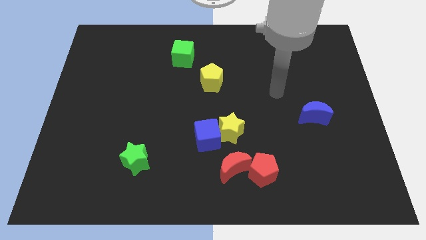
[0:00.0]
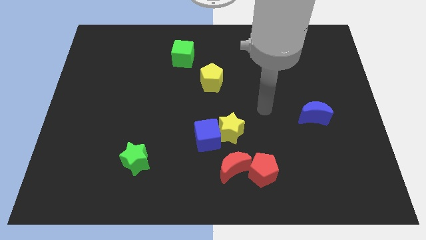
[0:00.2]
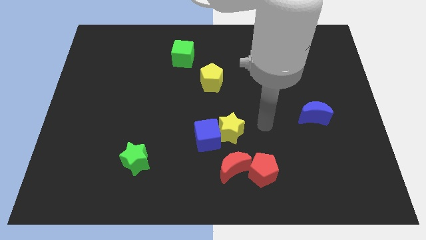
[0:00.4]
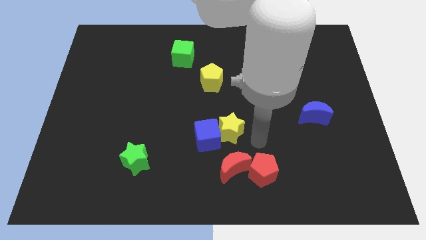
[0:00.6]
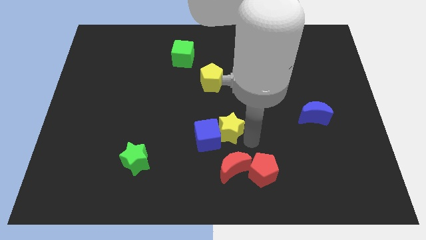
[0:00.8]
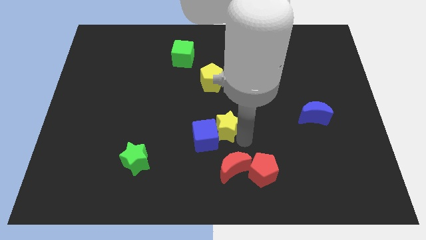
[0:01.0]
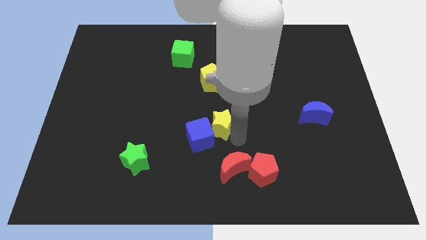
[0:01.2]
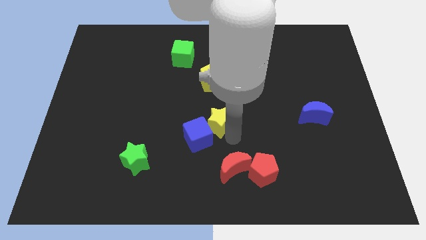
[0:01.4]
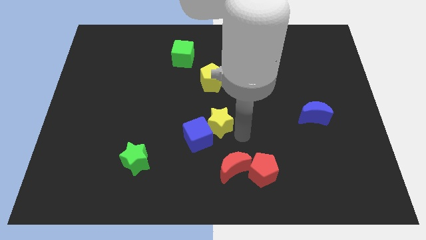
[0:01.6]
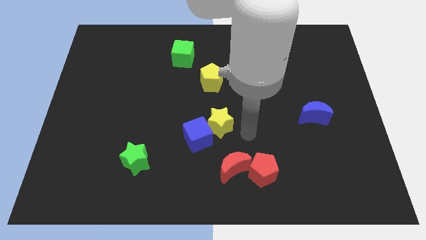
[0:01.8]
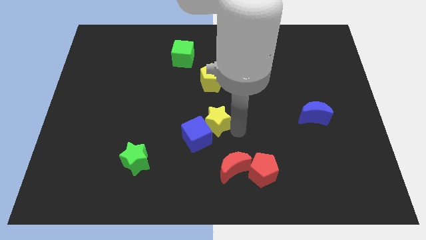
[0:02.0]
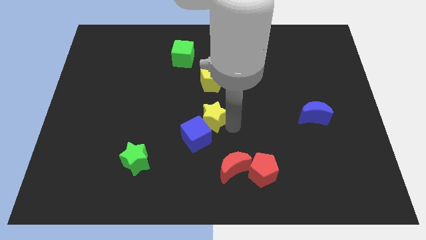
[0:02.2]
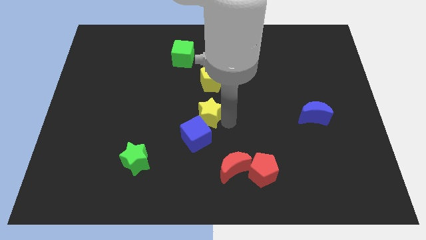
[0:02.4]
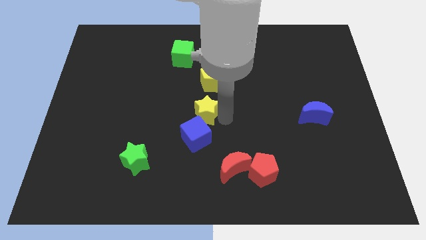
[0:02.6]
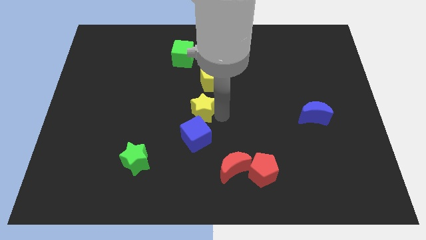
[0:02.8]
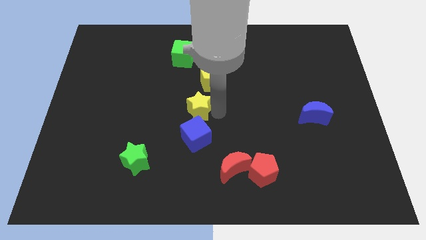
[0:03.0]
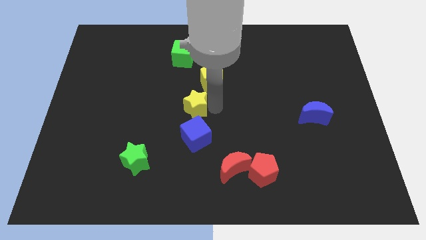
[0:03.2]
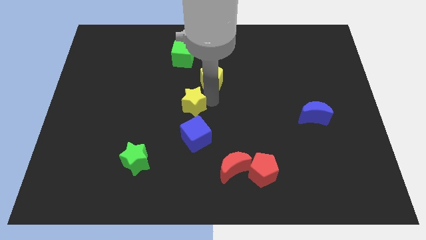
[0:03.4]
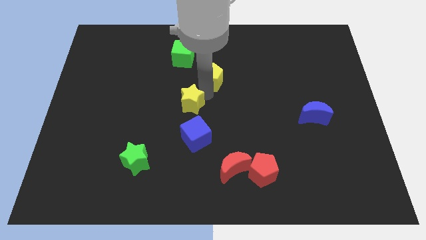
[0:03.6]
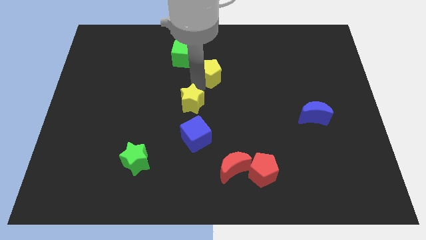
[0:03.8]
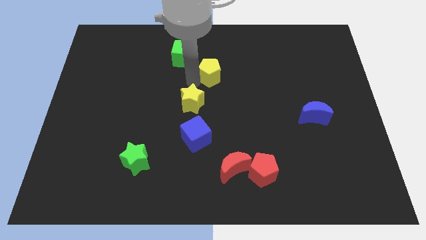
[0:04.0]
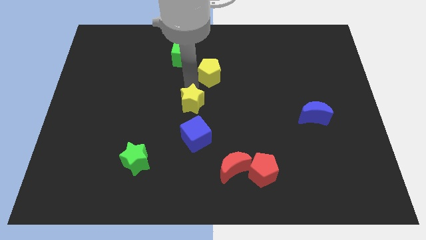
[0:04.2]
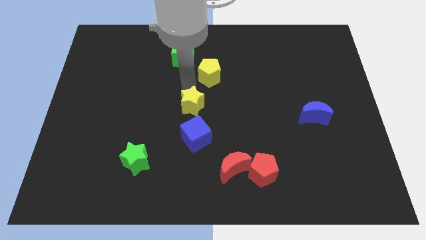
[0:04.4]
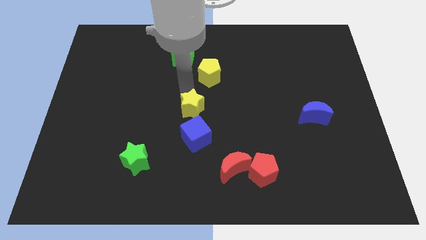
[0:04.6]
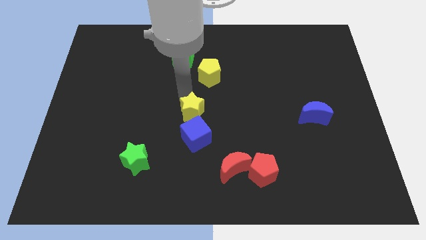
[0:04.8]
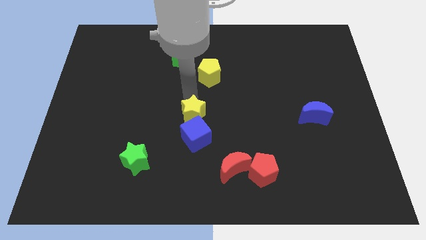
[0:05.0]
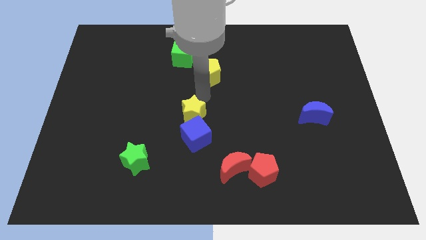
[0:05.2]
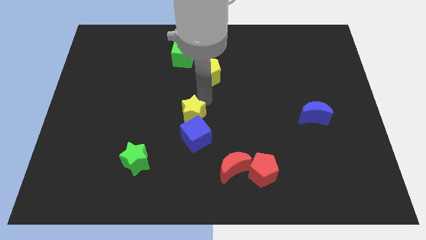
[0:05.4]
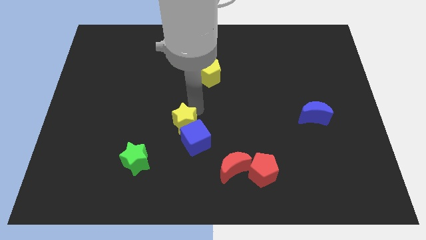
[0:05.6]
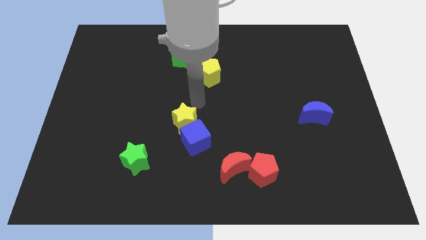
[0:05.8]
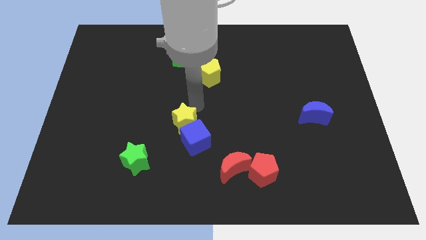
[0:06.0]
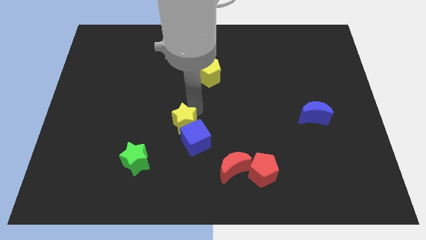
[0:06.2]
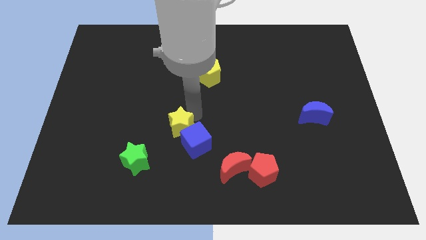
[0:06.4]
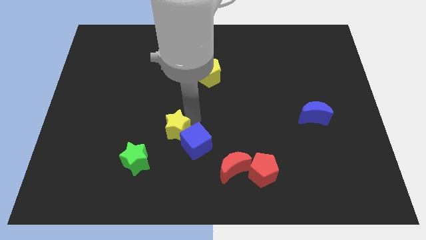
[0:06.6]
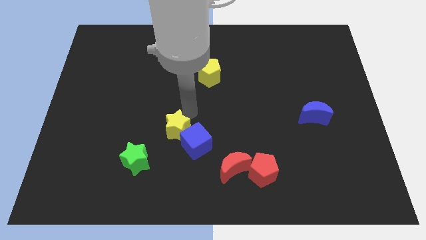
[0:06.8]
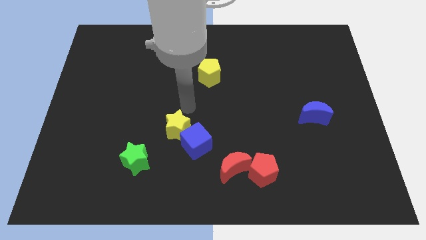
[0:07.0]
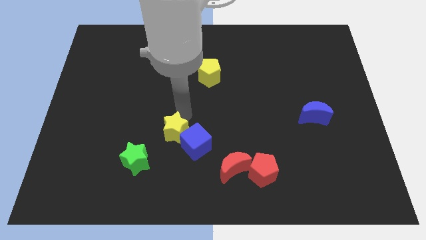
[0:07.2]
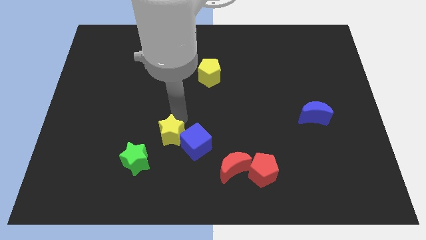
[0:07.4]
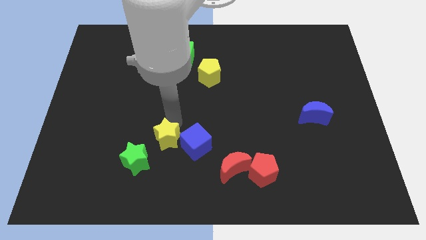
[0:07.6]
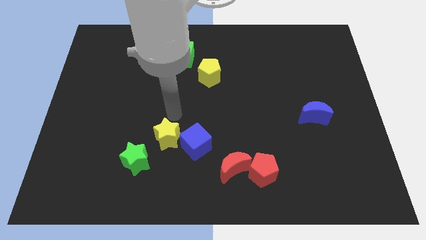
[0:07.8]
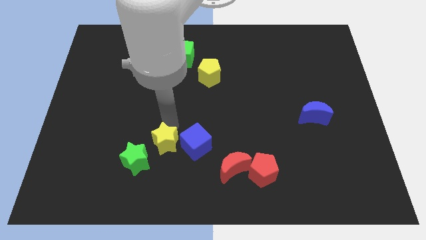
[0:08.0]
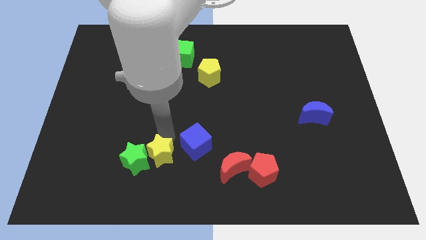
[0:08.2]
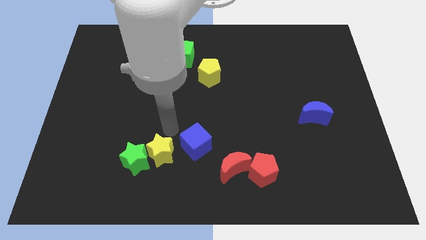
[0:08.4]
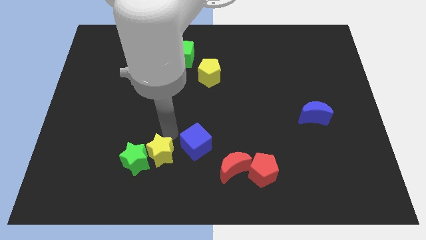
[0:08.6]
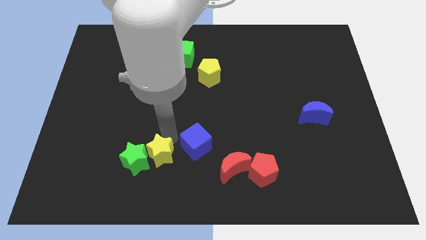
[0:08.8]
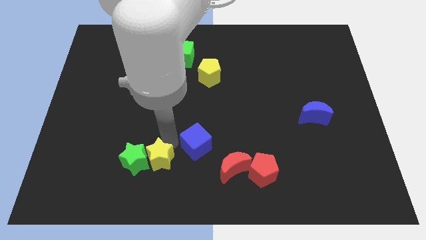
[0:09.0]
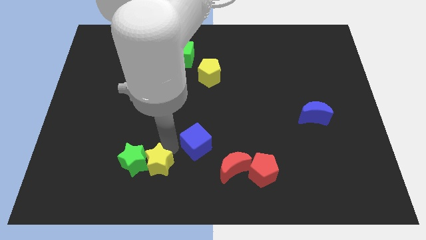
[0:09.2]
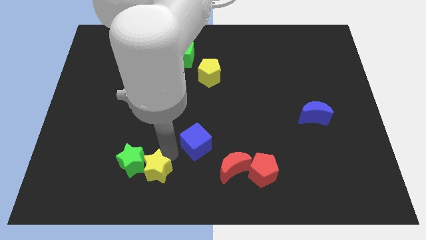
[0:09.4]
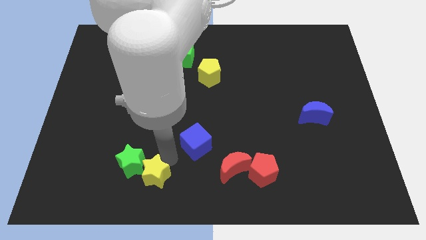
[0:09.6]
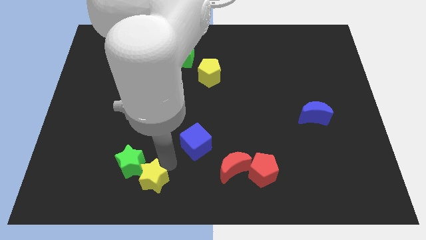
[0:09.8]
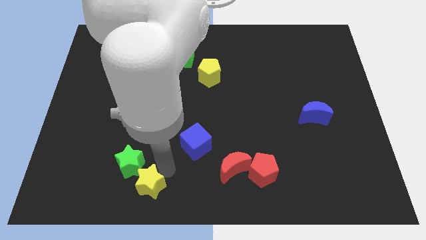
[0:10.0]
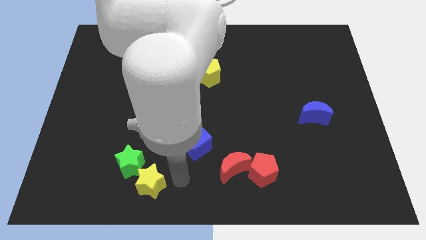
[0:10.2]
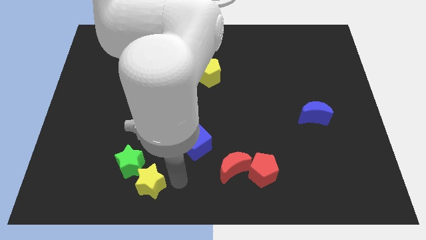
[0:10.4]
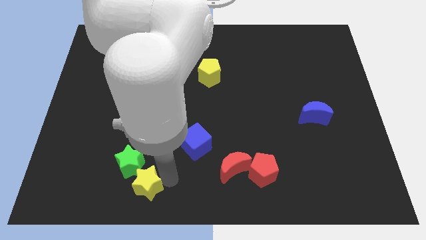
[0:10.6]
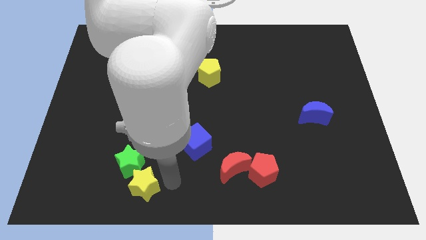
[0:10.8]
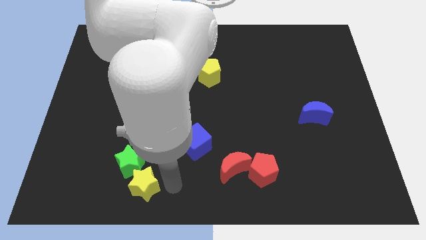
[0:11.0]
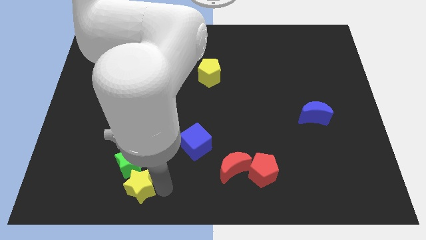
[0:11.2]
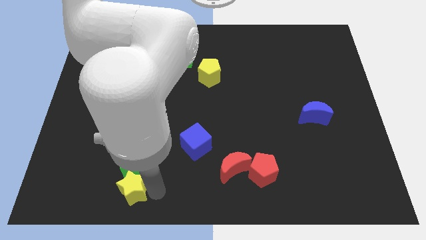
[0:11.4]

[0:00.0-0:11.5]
slide the yellow star diagonally down and to the left of the green star
